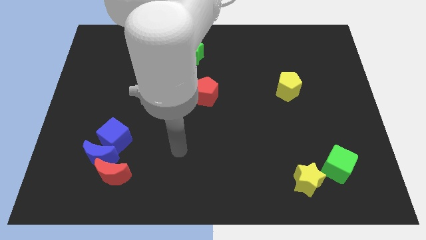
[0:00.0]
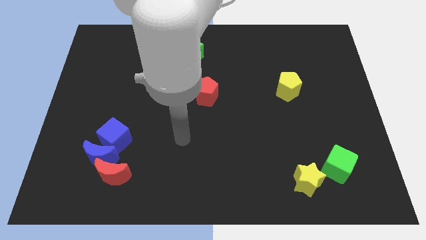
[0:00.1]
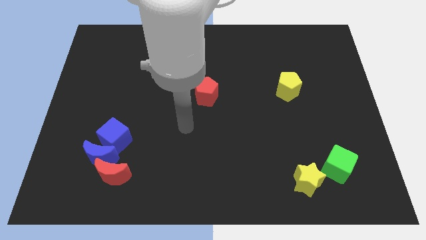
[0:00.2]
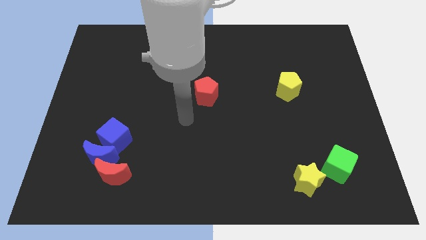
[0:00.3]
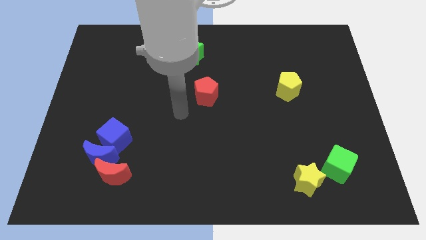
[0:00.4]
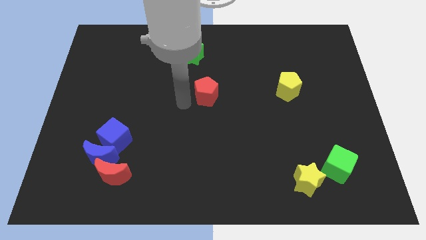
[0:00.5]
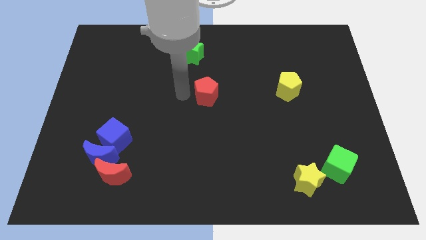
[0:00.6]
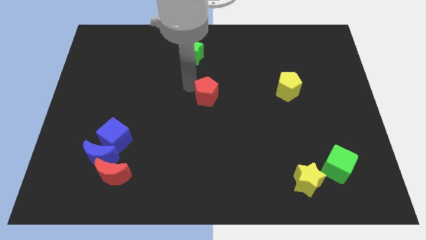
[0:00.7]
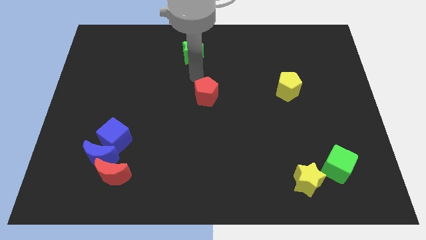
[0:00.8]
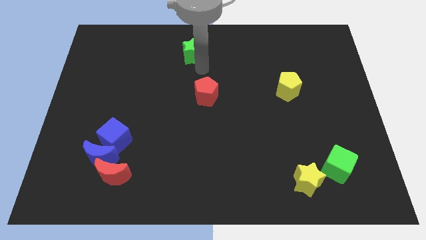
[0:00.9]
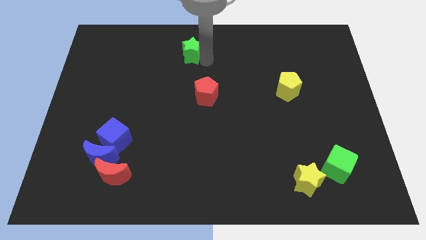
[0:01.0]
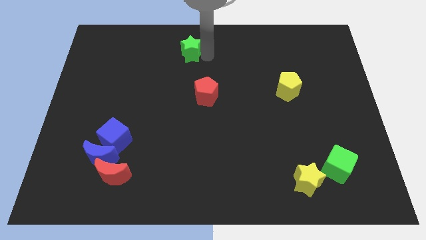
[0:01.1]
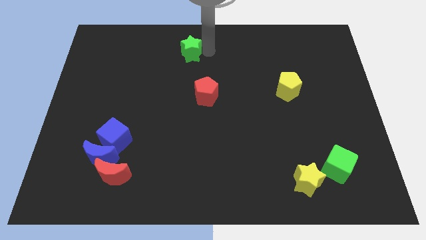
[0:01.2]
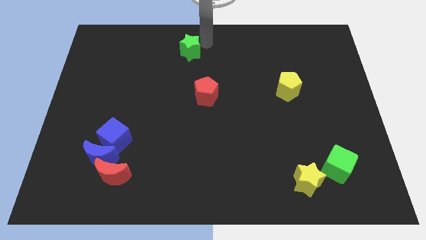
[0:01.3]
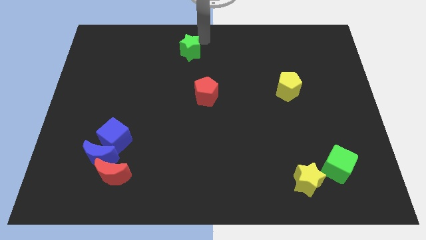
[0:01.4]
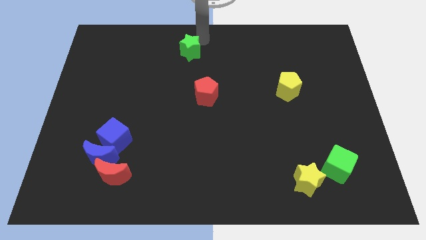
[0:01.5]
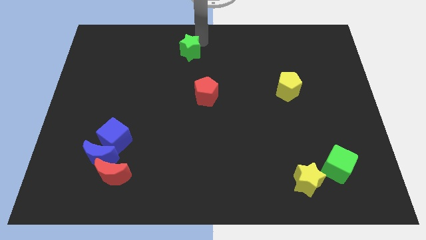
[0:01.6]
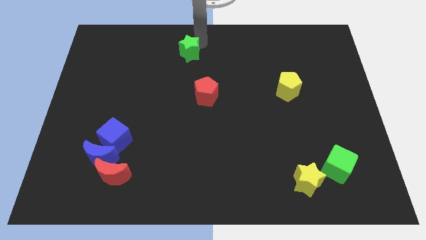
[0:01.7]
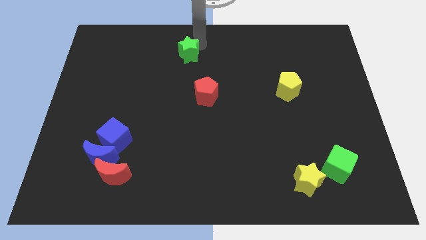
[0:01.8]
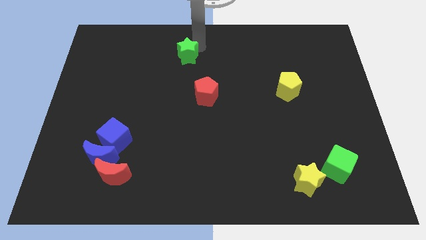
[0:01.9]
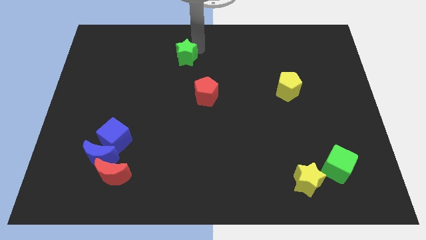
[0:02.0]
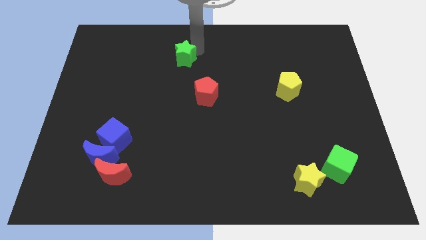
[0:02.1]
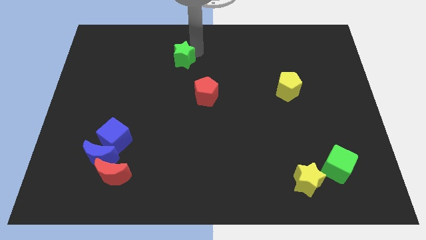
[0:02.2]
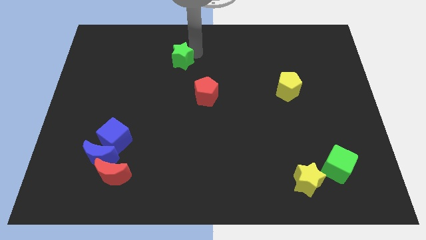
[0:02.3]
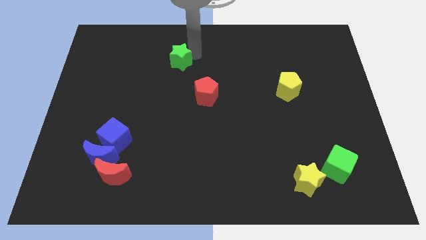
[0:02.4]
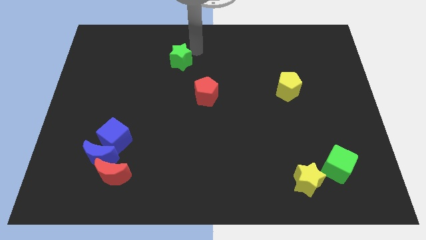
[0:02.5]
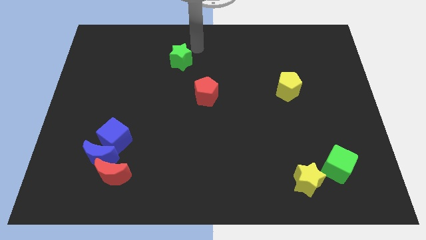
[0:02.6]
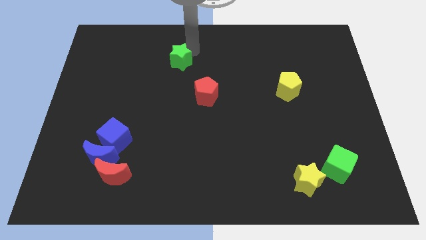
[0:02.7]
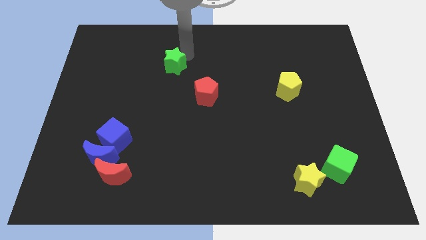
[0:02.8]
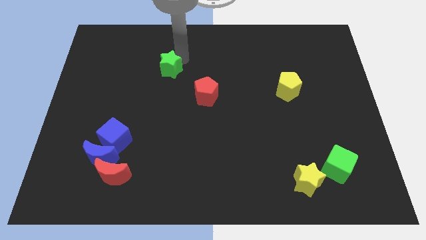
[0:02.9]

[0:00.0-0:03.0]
push the green star downwards and then left slightly

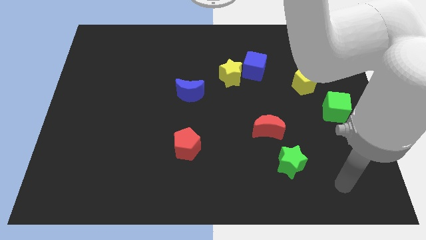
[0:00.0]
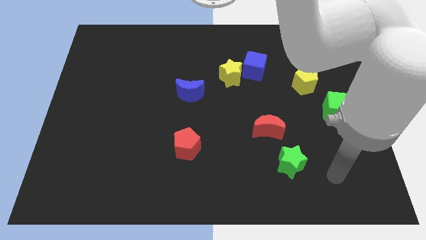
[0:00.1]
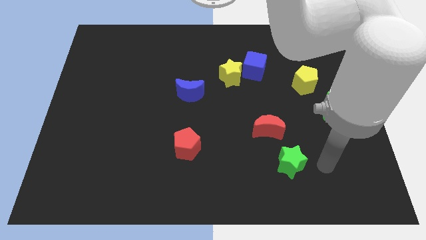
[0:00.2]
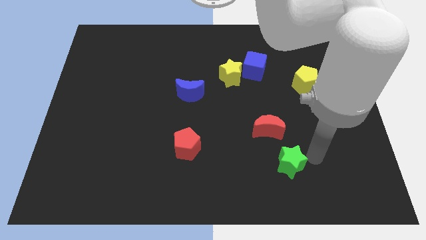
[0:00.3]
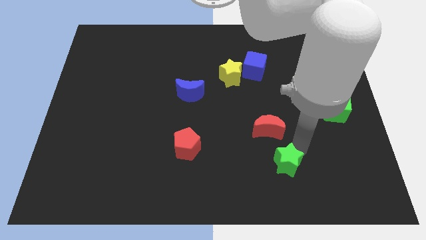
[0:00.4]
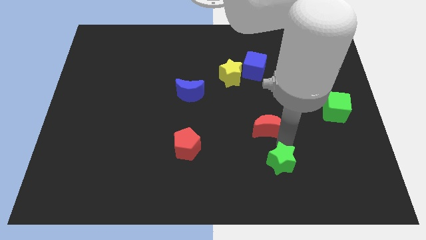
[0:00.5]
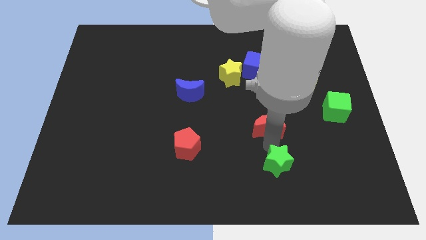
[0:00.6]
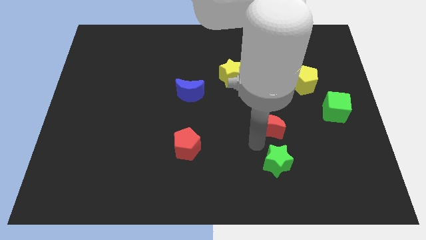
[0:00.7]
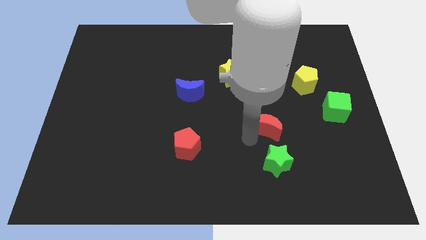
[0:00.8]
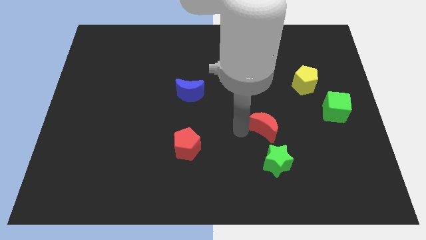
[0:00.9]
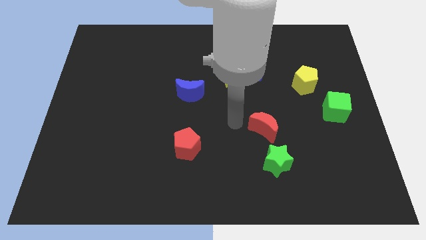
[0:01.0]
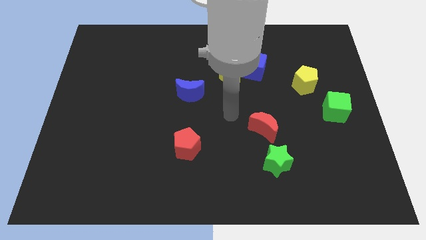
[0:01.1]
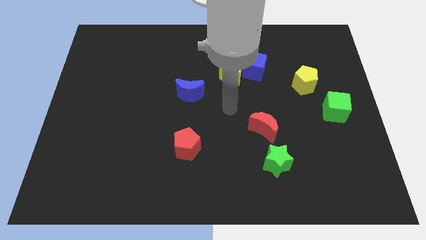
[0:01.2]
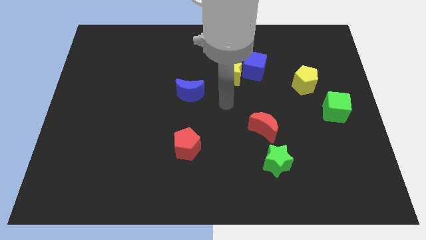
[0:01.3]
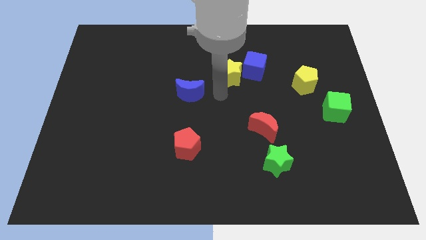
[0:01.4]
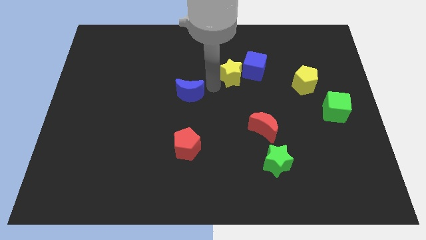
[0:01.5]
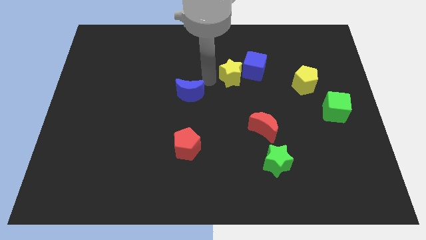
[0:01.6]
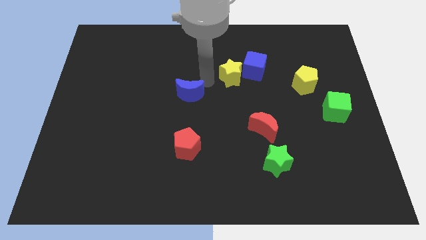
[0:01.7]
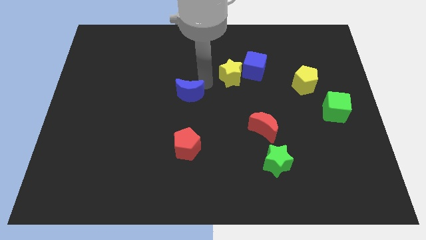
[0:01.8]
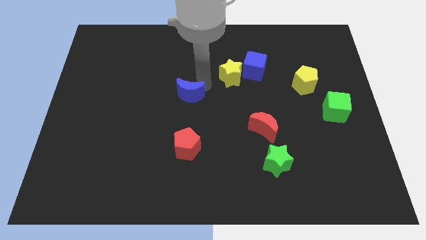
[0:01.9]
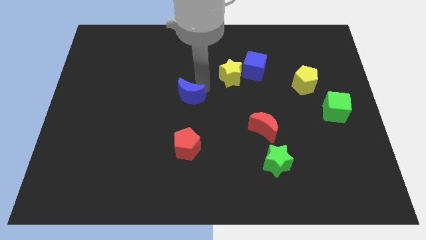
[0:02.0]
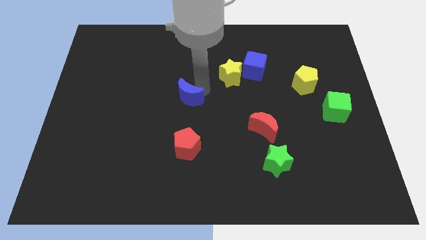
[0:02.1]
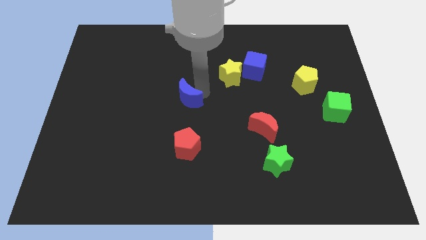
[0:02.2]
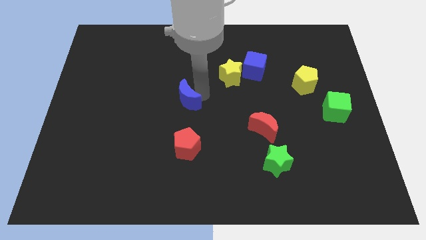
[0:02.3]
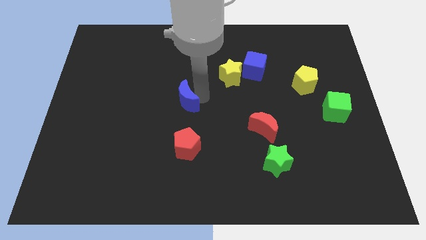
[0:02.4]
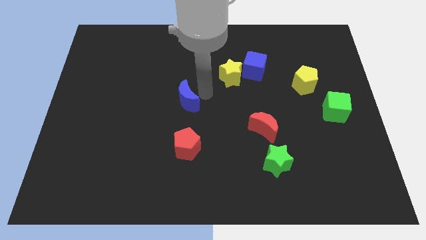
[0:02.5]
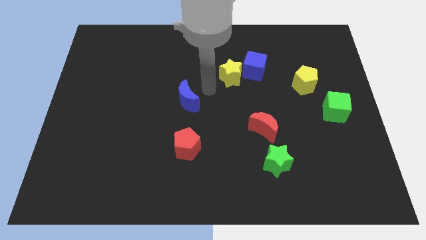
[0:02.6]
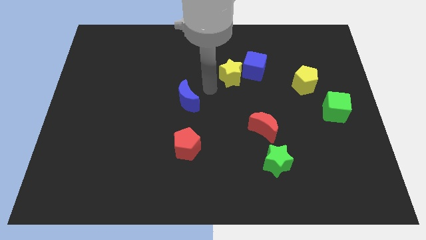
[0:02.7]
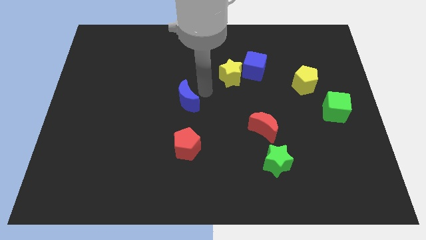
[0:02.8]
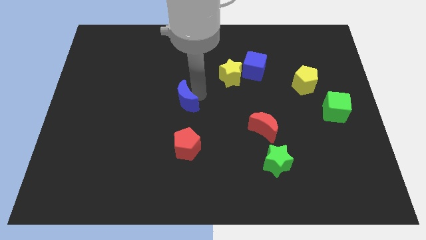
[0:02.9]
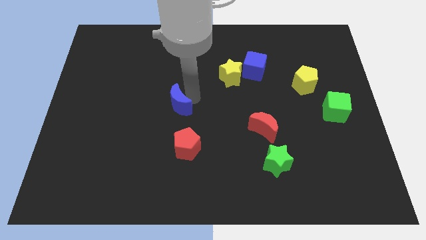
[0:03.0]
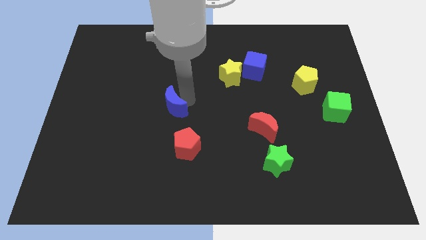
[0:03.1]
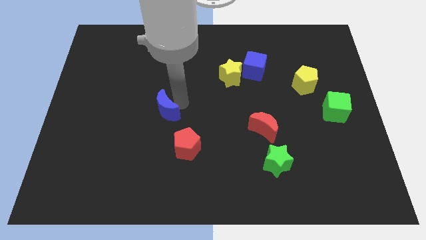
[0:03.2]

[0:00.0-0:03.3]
move the blue moon diagonally downwards and to the left a bit

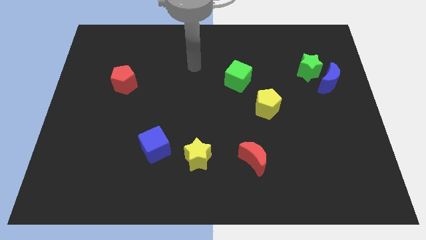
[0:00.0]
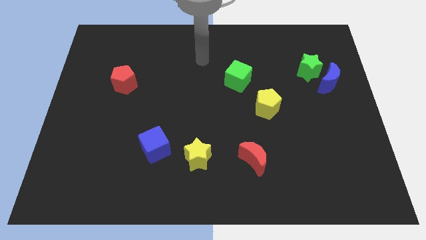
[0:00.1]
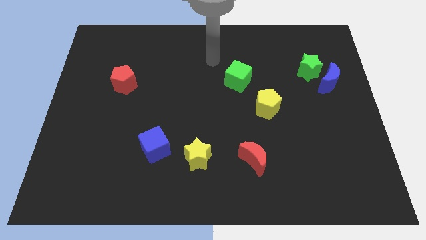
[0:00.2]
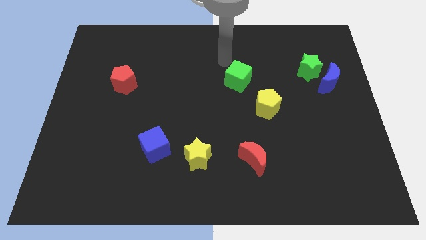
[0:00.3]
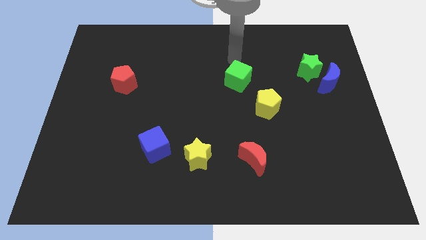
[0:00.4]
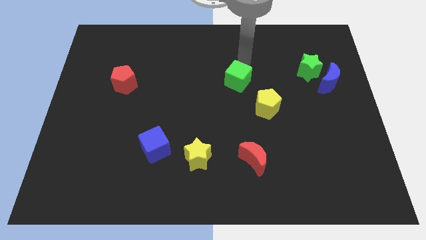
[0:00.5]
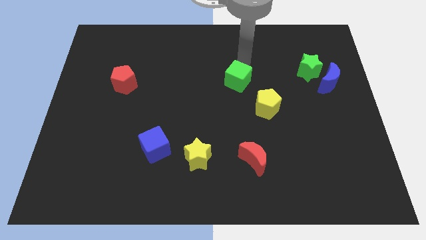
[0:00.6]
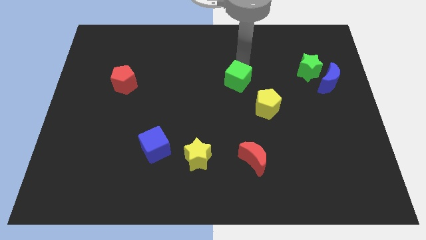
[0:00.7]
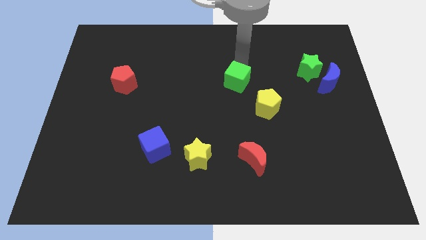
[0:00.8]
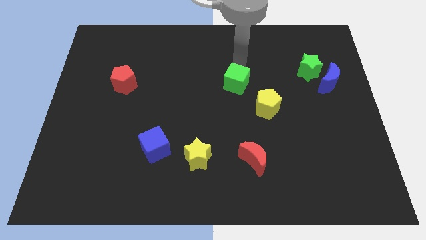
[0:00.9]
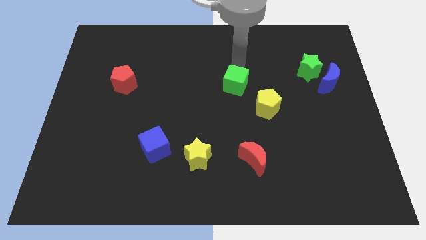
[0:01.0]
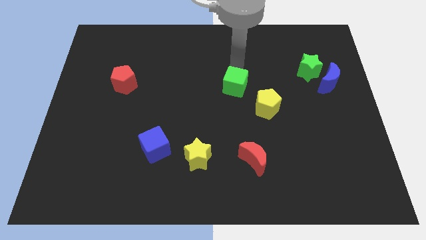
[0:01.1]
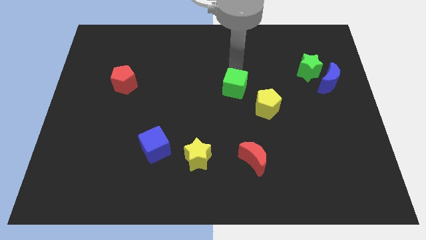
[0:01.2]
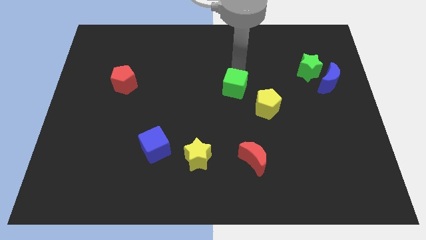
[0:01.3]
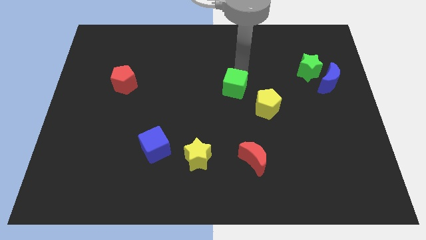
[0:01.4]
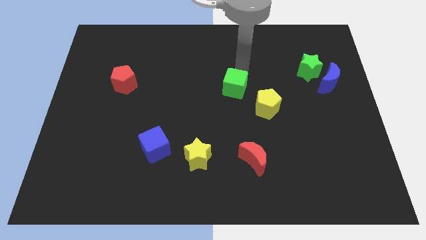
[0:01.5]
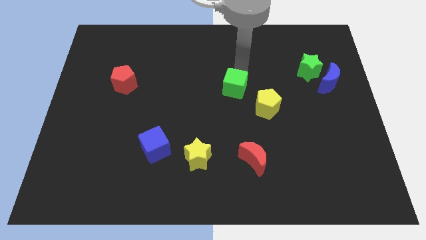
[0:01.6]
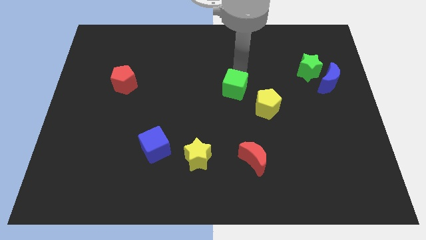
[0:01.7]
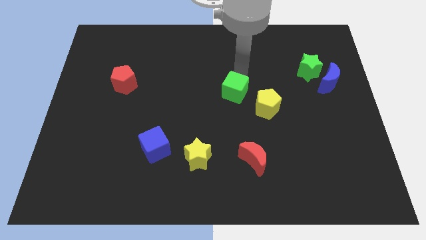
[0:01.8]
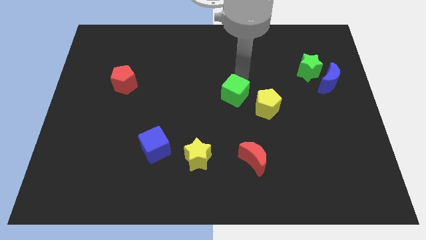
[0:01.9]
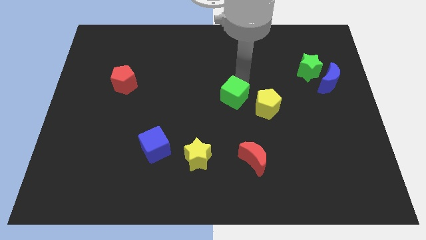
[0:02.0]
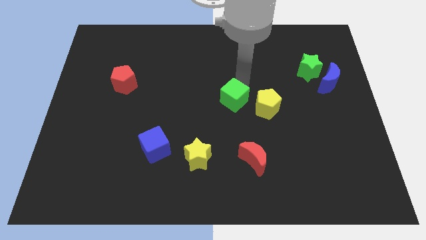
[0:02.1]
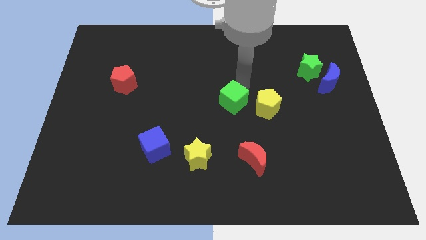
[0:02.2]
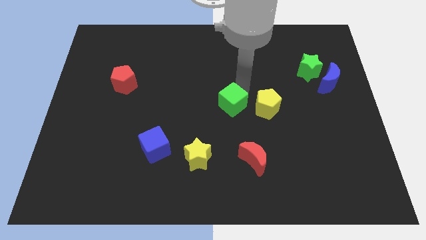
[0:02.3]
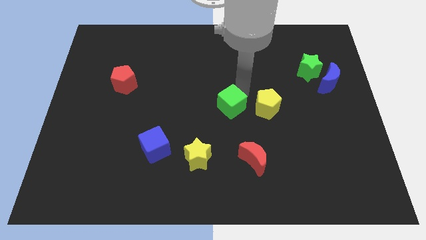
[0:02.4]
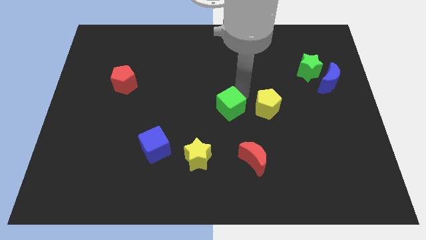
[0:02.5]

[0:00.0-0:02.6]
push the green cube somewhat downwards and then to the left
